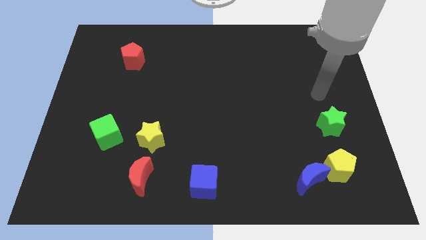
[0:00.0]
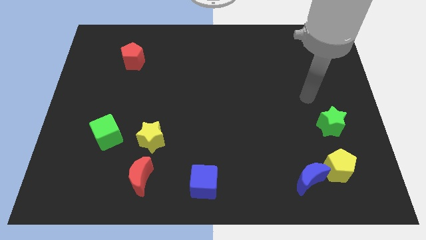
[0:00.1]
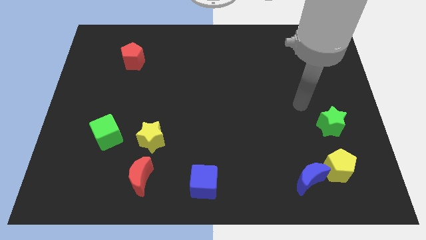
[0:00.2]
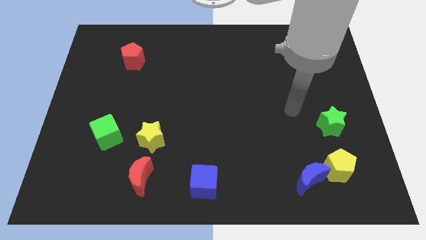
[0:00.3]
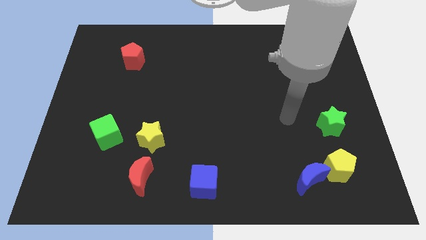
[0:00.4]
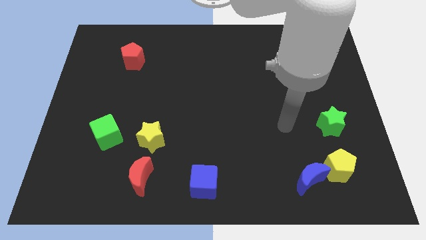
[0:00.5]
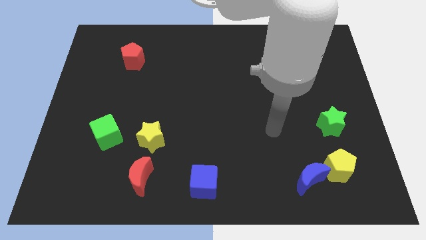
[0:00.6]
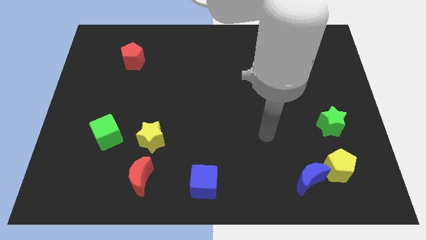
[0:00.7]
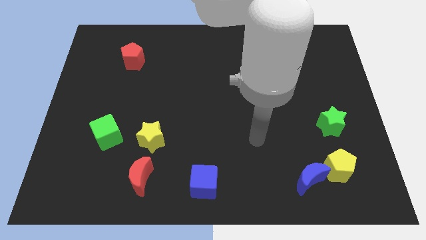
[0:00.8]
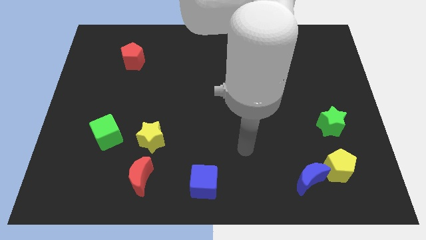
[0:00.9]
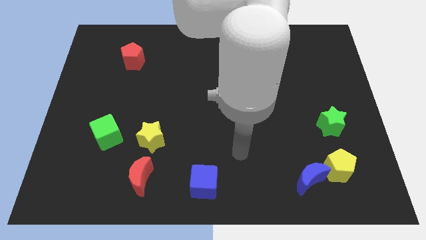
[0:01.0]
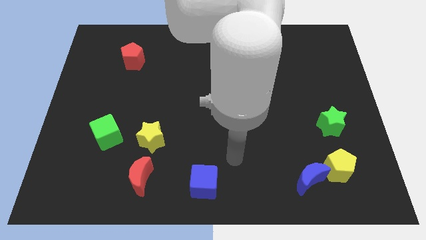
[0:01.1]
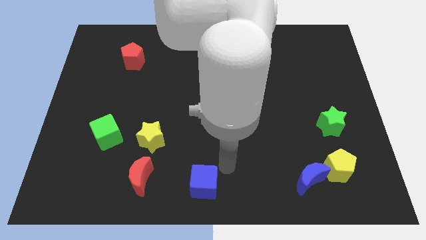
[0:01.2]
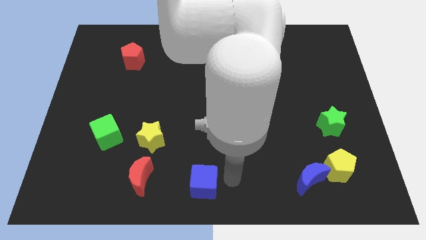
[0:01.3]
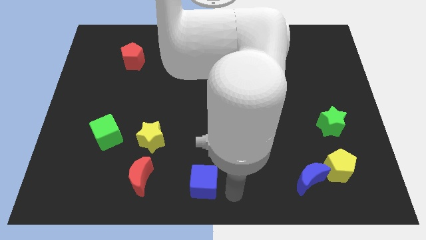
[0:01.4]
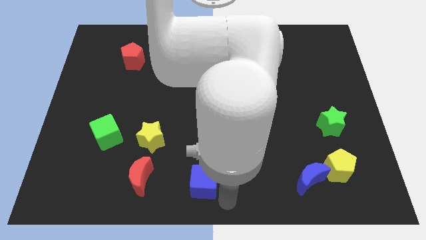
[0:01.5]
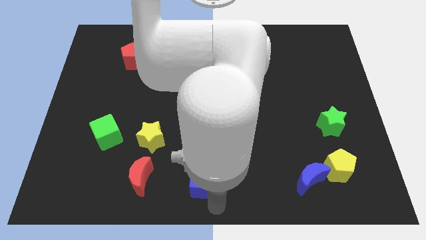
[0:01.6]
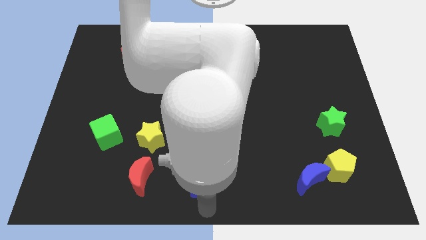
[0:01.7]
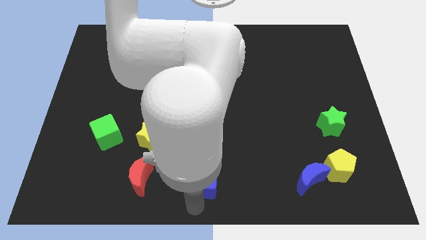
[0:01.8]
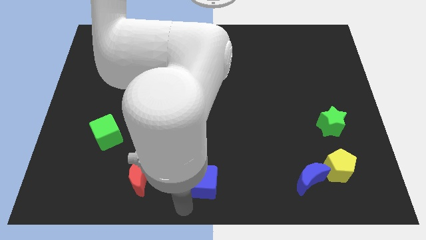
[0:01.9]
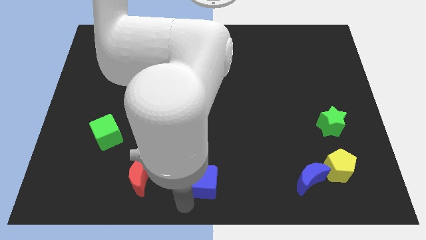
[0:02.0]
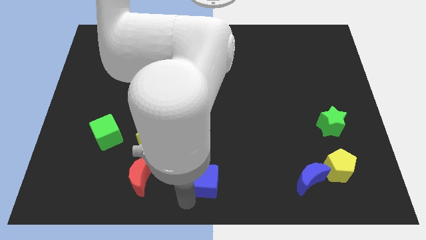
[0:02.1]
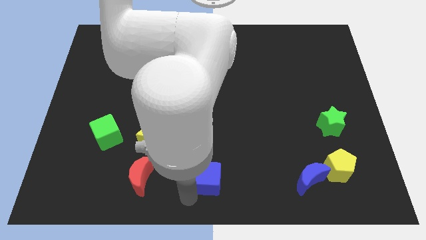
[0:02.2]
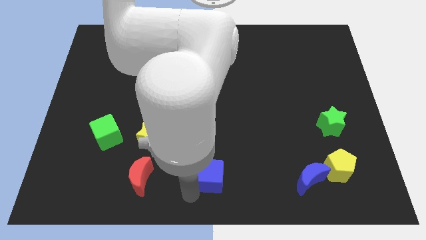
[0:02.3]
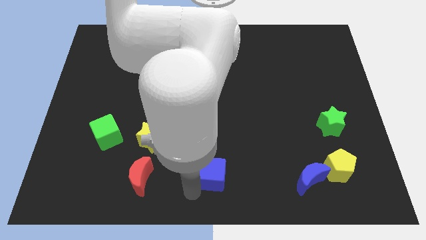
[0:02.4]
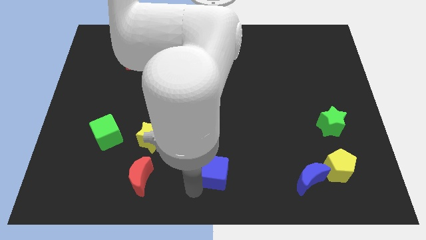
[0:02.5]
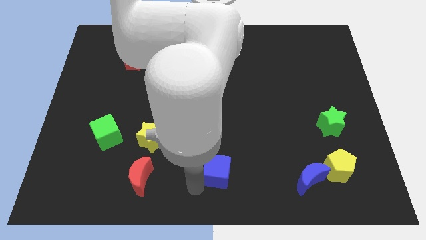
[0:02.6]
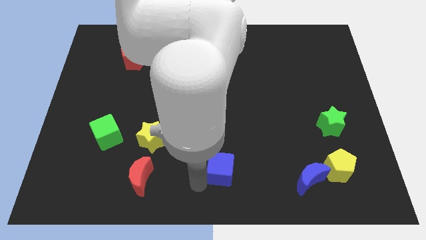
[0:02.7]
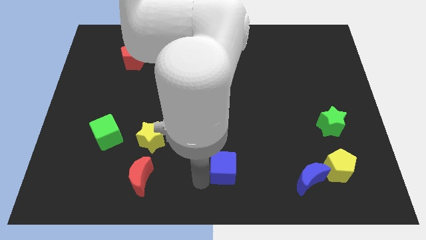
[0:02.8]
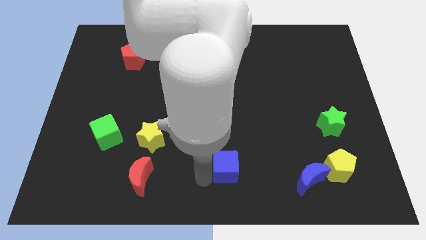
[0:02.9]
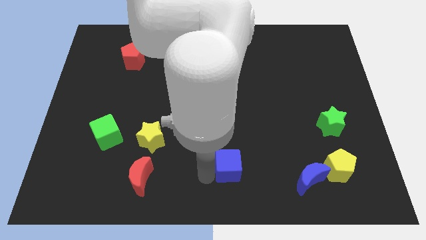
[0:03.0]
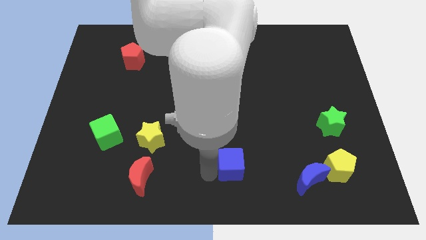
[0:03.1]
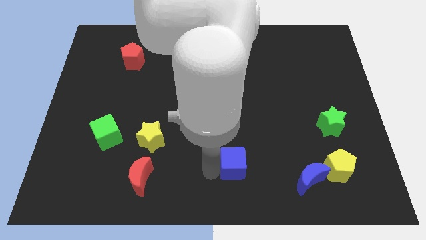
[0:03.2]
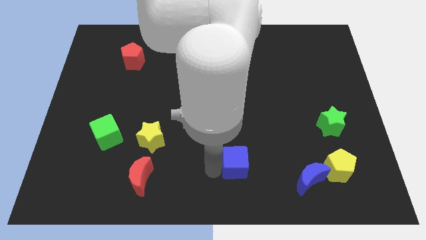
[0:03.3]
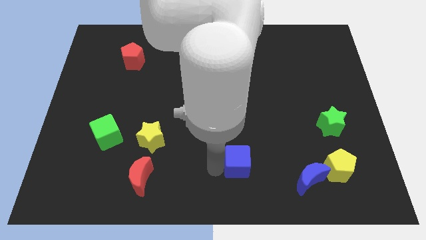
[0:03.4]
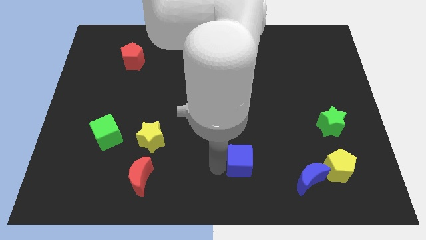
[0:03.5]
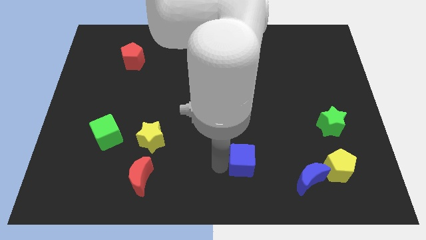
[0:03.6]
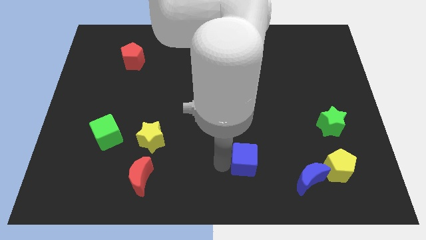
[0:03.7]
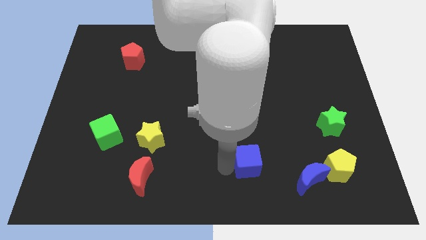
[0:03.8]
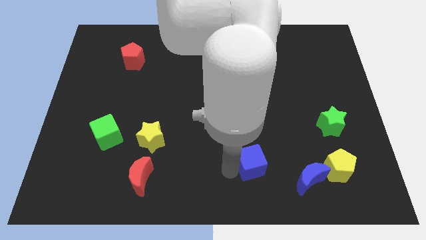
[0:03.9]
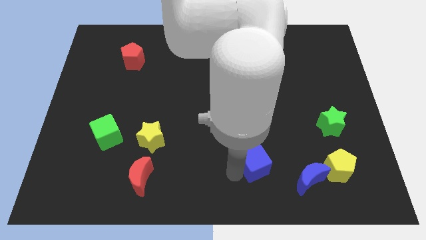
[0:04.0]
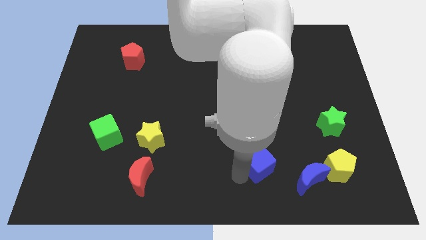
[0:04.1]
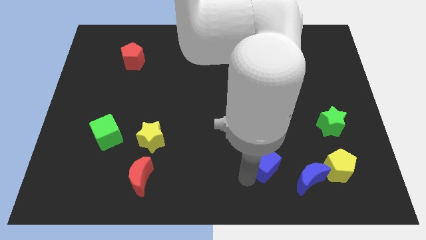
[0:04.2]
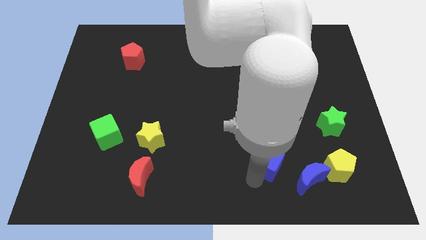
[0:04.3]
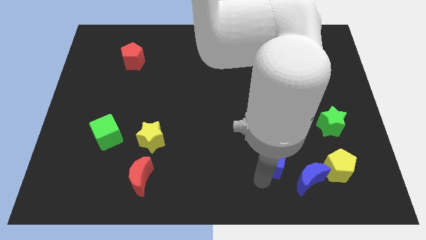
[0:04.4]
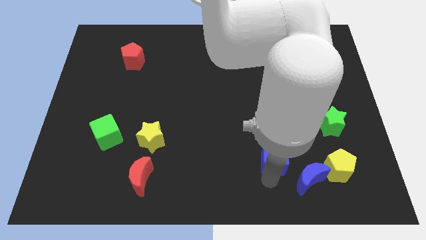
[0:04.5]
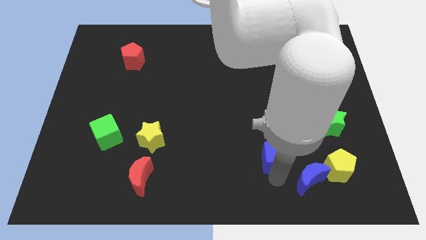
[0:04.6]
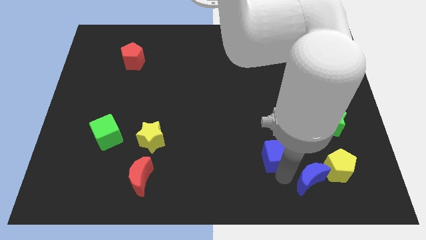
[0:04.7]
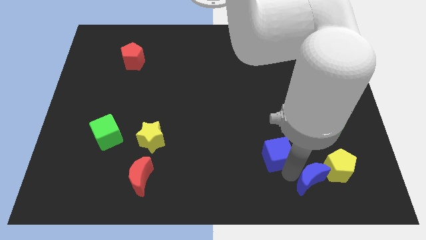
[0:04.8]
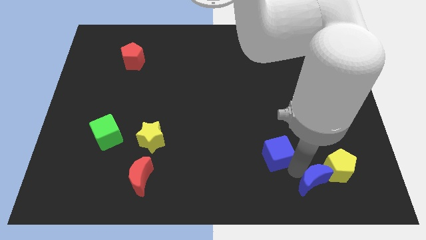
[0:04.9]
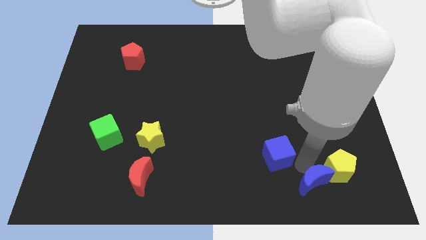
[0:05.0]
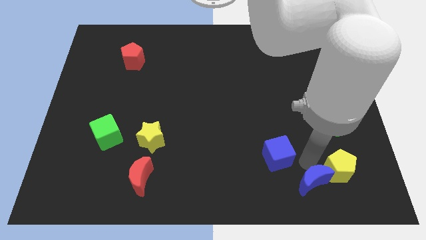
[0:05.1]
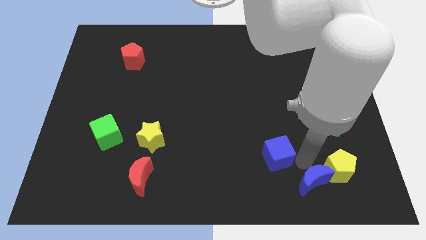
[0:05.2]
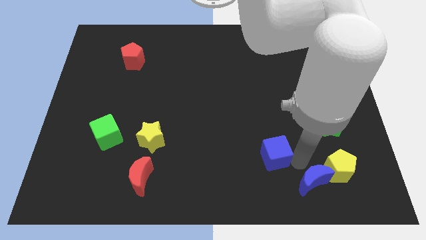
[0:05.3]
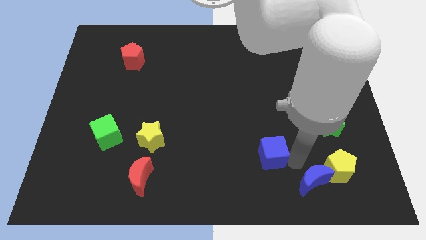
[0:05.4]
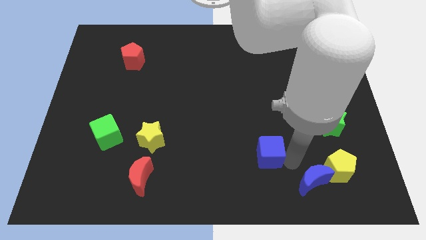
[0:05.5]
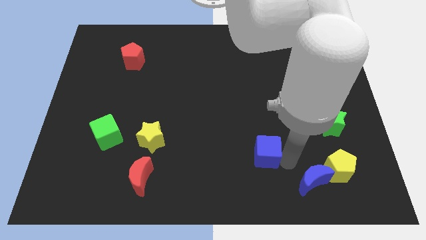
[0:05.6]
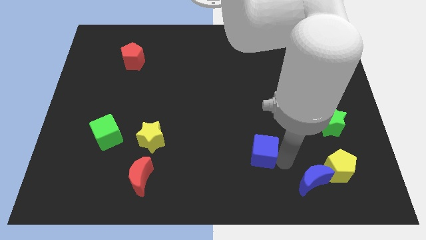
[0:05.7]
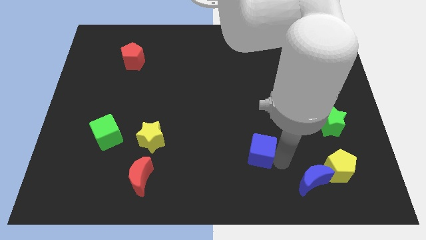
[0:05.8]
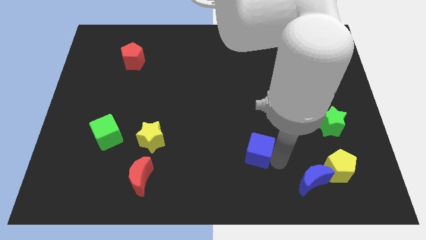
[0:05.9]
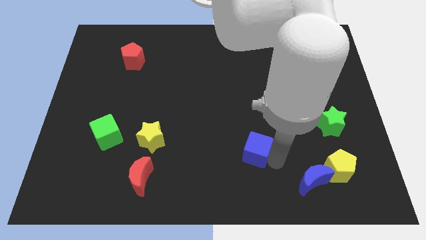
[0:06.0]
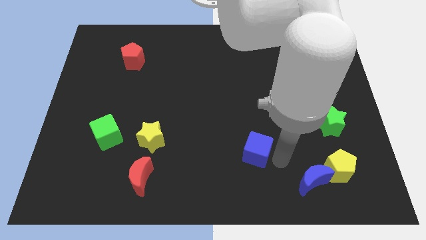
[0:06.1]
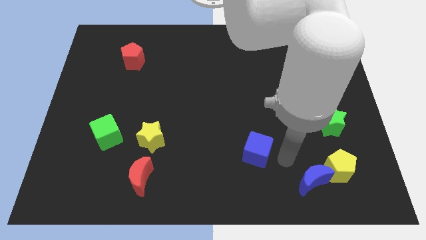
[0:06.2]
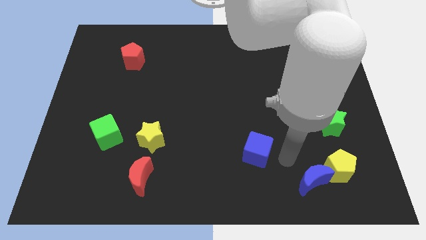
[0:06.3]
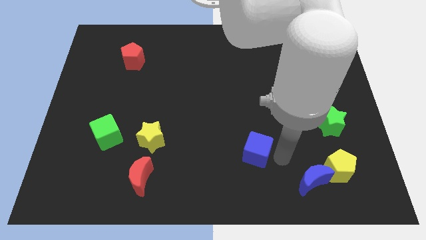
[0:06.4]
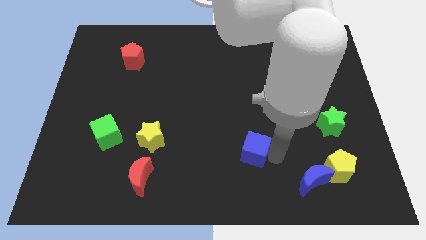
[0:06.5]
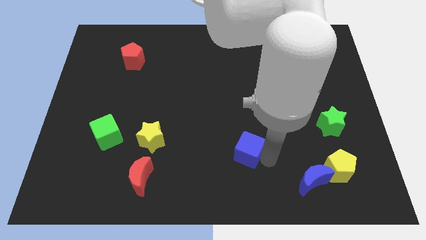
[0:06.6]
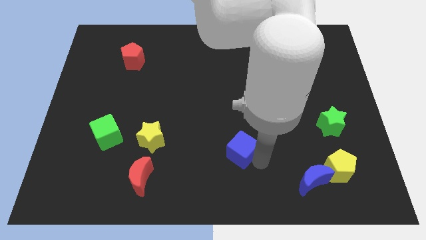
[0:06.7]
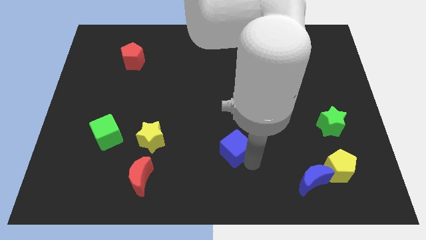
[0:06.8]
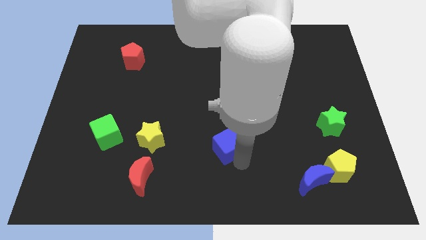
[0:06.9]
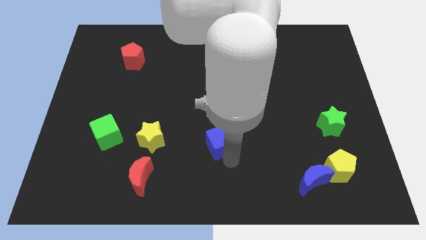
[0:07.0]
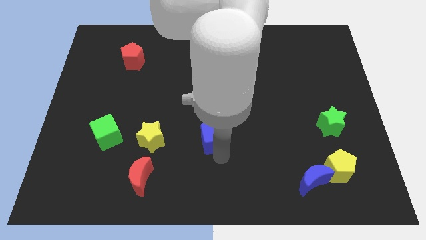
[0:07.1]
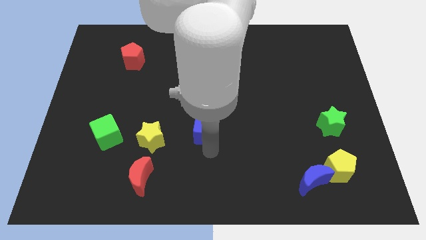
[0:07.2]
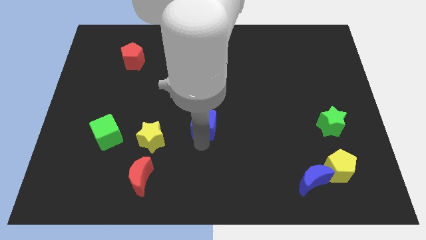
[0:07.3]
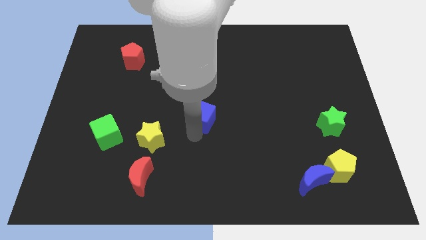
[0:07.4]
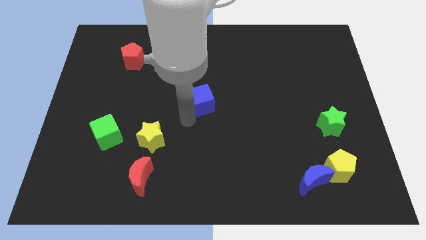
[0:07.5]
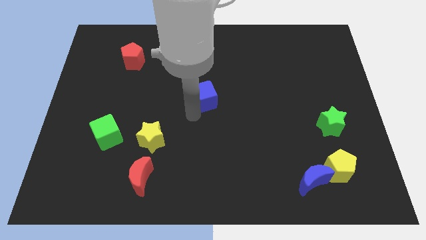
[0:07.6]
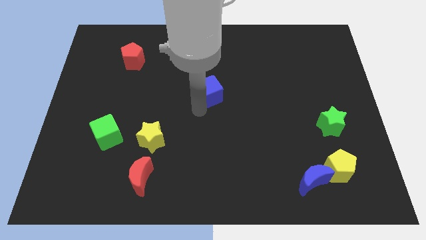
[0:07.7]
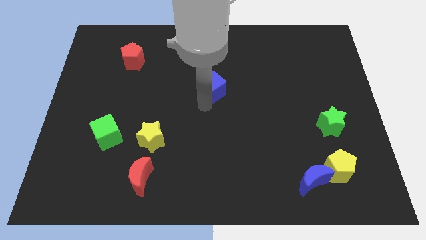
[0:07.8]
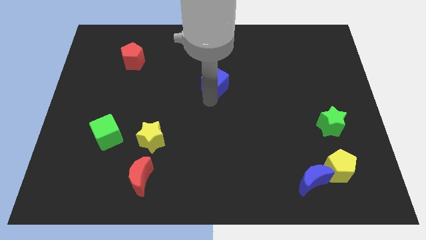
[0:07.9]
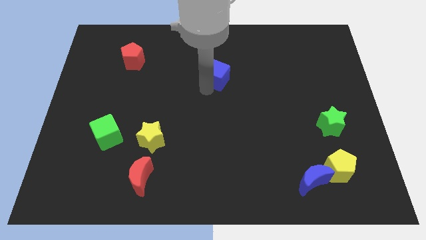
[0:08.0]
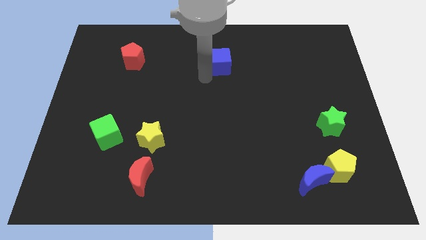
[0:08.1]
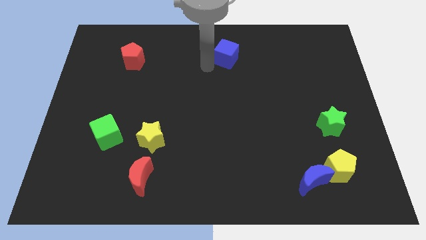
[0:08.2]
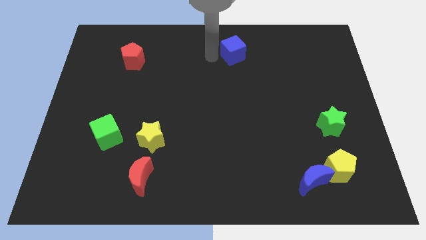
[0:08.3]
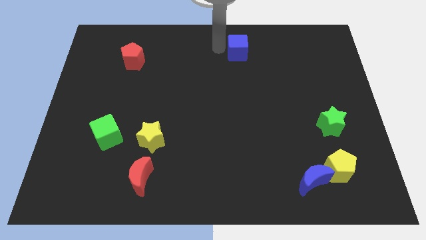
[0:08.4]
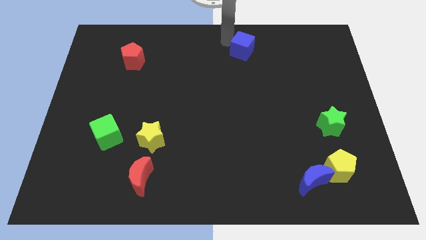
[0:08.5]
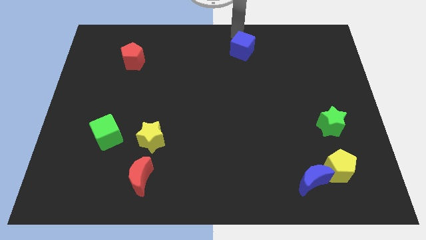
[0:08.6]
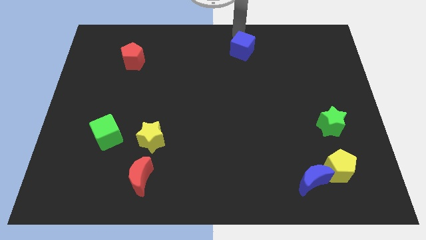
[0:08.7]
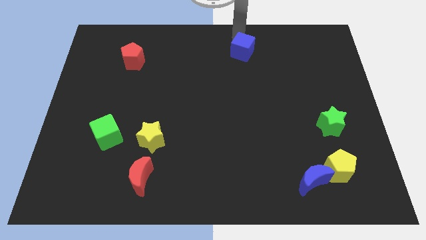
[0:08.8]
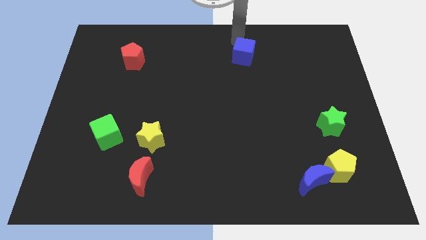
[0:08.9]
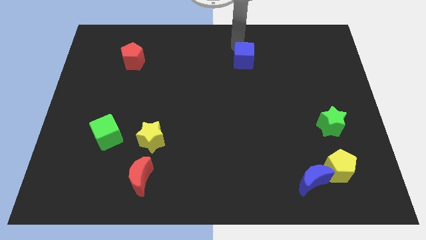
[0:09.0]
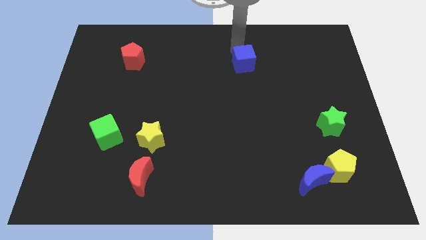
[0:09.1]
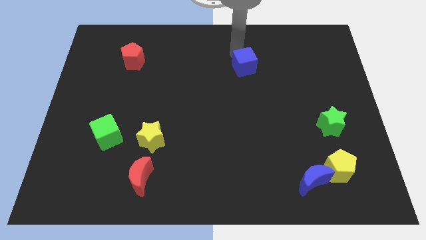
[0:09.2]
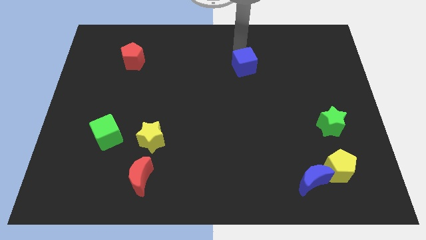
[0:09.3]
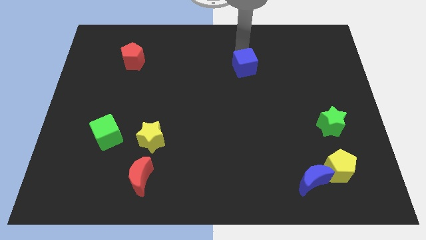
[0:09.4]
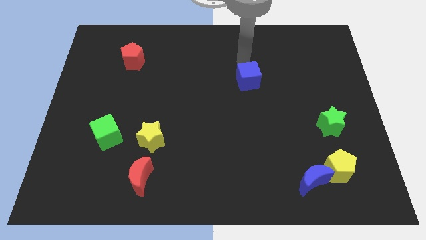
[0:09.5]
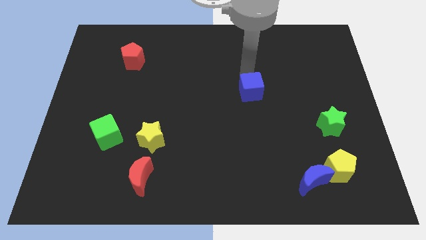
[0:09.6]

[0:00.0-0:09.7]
push the blue cube up and then right
